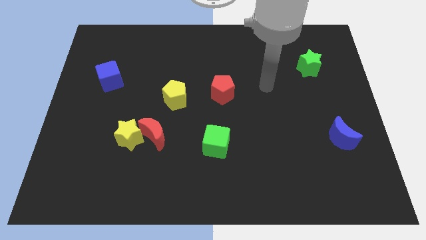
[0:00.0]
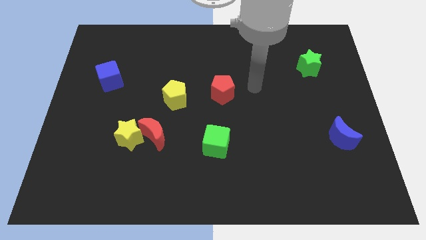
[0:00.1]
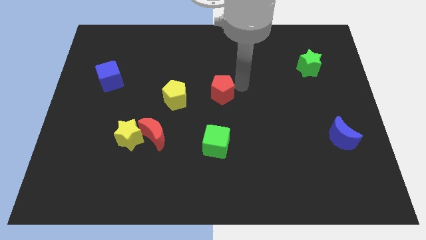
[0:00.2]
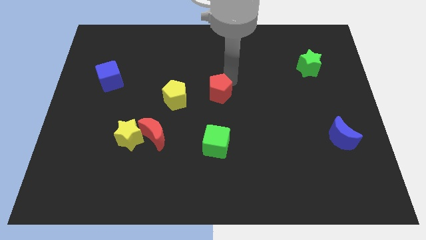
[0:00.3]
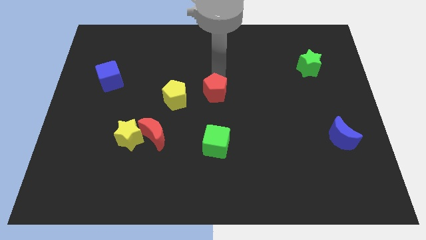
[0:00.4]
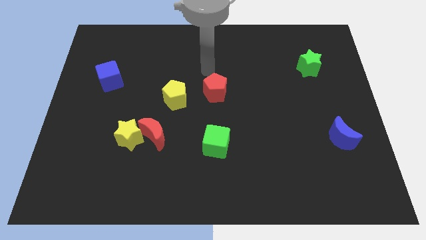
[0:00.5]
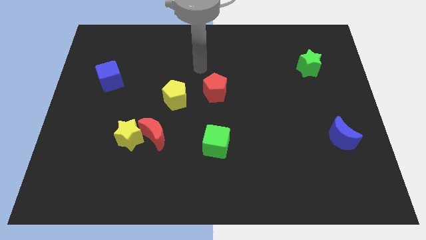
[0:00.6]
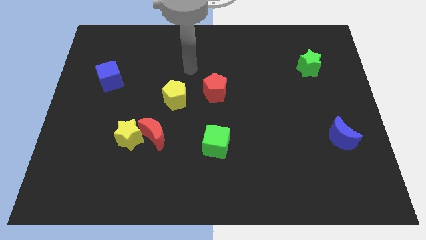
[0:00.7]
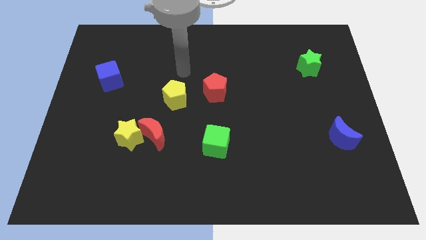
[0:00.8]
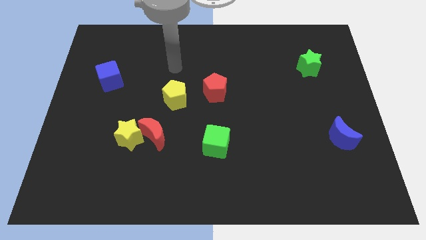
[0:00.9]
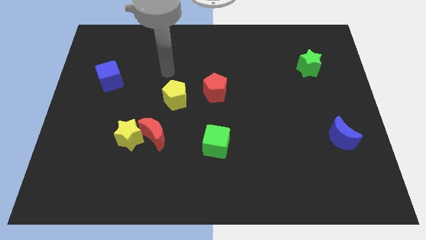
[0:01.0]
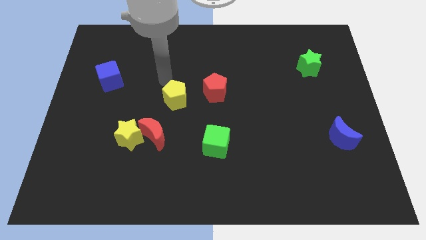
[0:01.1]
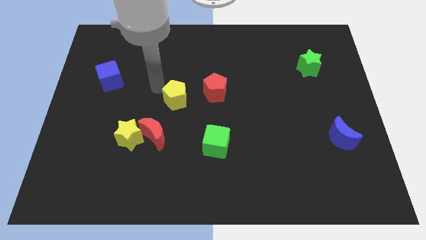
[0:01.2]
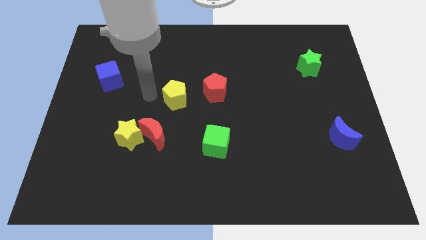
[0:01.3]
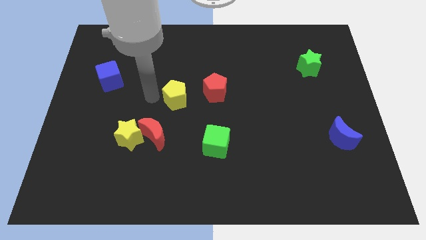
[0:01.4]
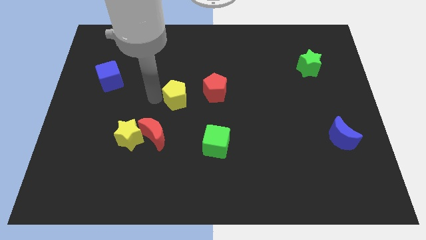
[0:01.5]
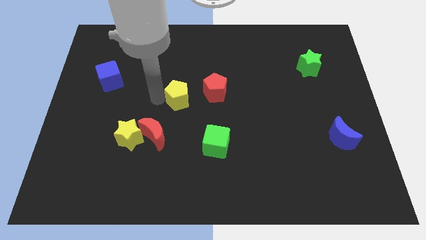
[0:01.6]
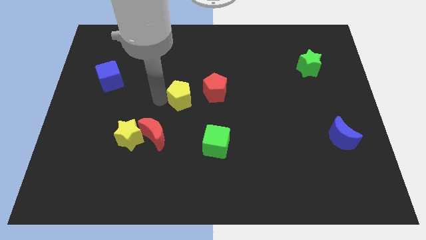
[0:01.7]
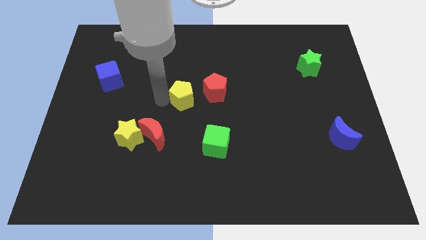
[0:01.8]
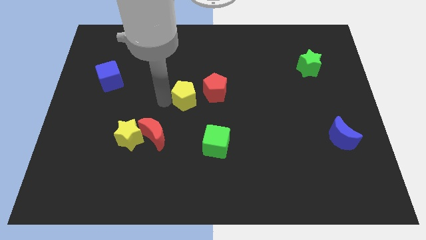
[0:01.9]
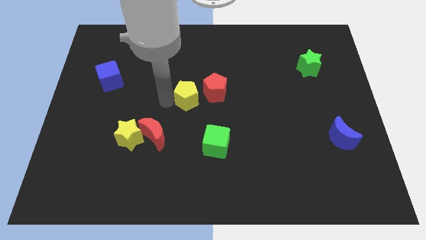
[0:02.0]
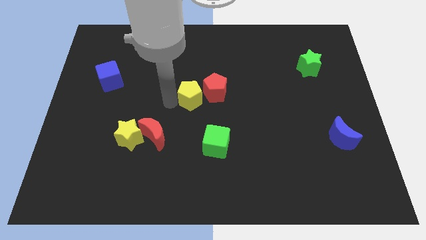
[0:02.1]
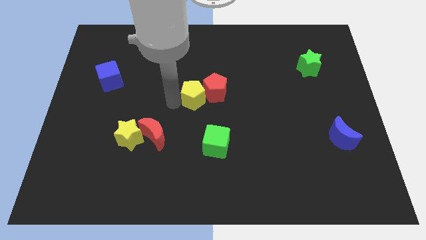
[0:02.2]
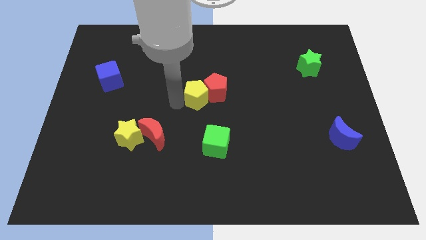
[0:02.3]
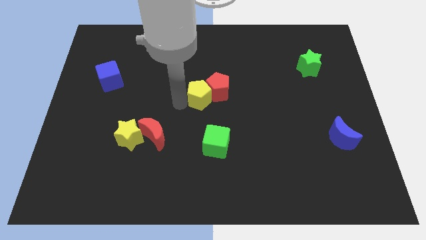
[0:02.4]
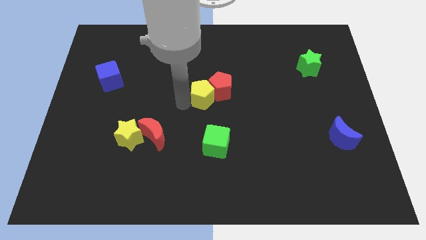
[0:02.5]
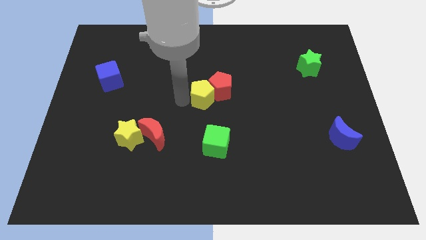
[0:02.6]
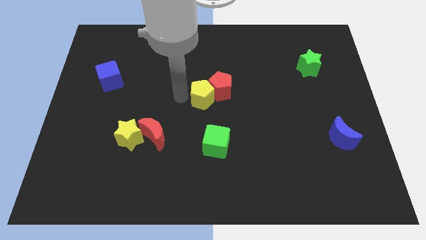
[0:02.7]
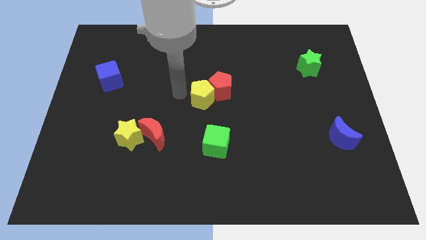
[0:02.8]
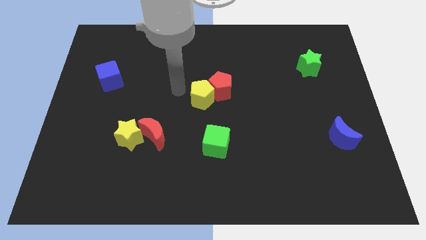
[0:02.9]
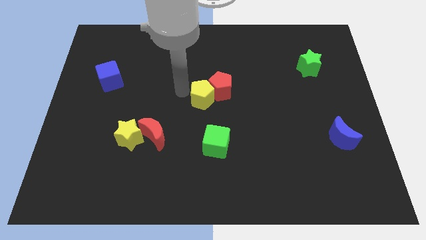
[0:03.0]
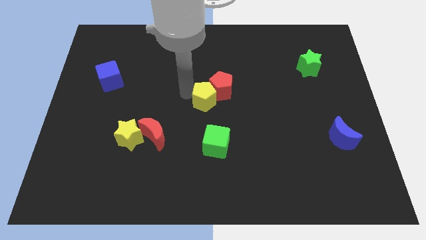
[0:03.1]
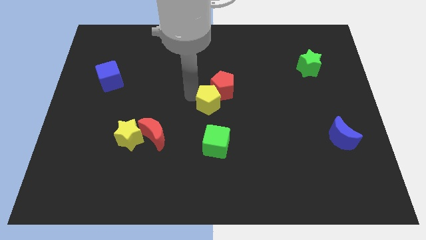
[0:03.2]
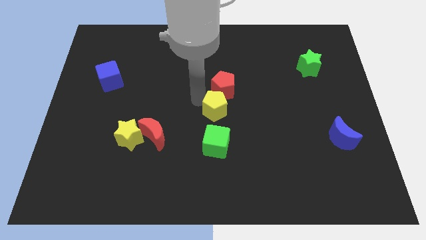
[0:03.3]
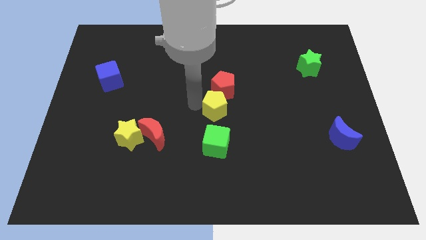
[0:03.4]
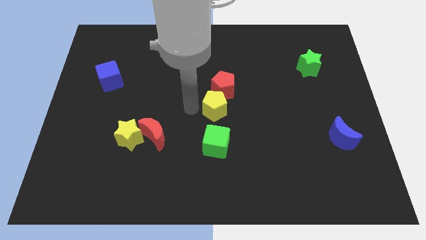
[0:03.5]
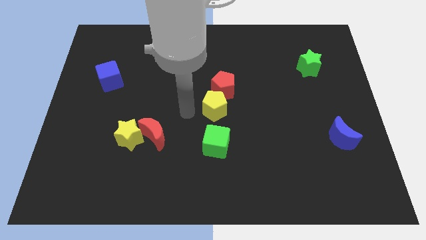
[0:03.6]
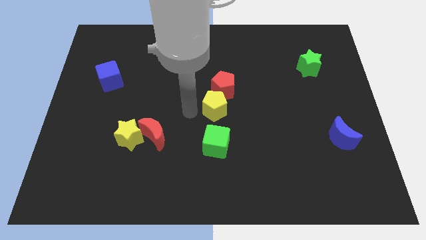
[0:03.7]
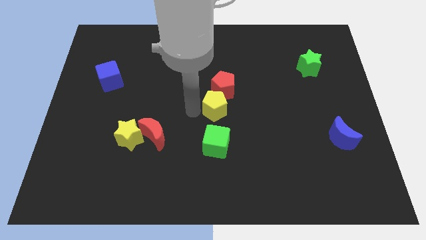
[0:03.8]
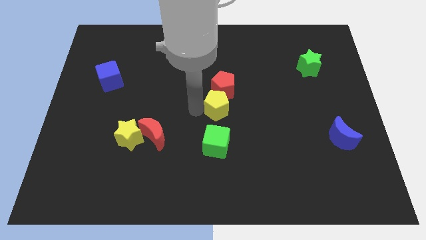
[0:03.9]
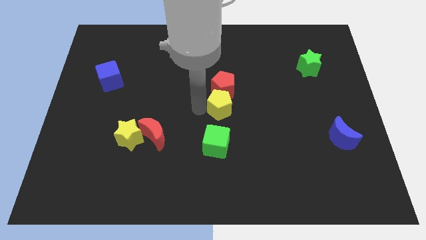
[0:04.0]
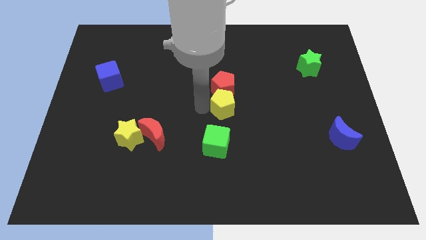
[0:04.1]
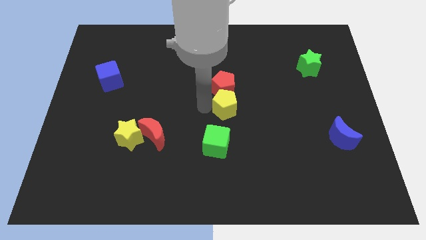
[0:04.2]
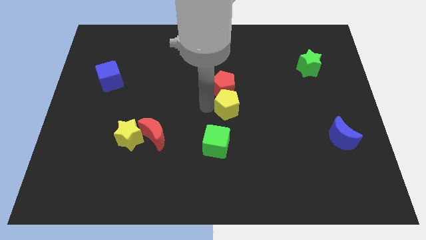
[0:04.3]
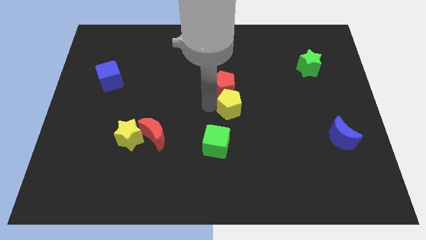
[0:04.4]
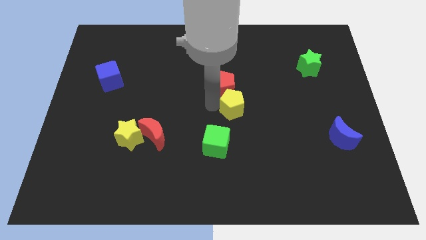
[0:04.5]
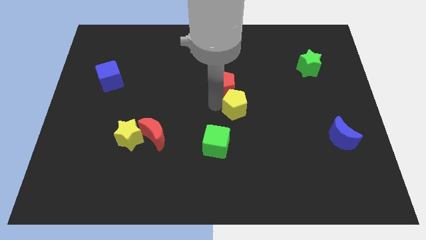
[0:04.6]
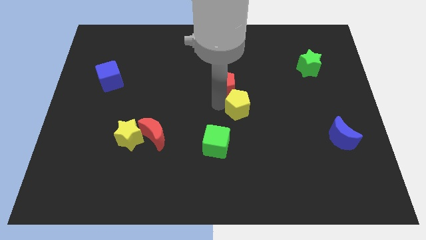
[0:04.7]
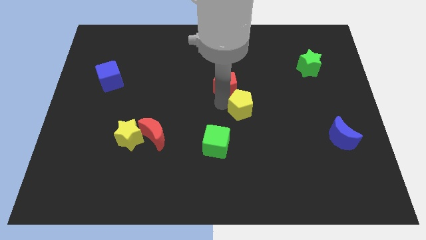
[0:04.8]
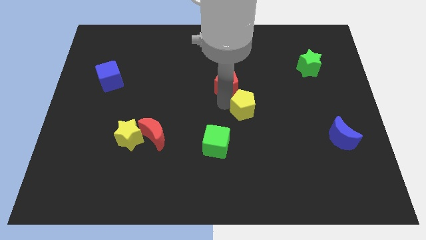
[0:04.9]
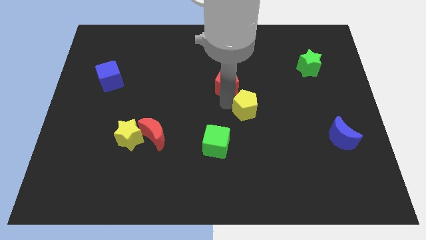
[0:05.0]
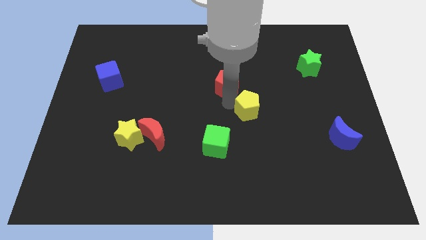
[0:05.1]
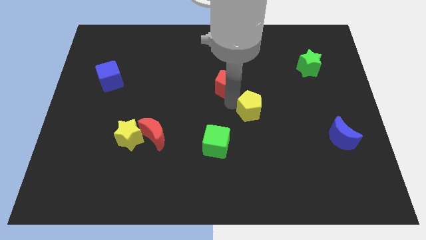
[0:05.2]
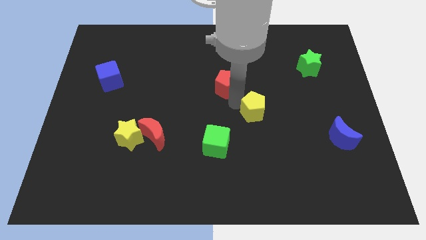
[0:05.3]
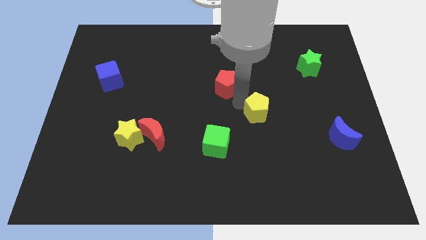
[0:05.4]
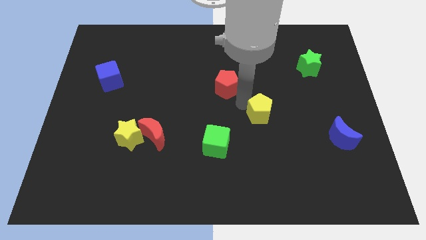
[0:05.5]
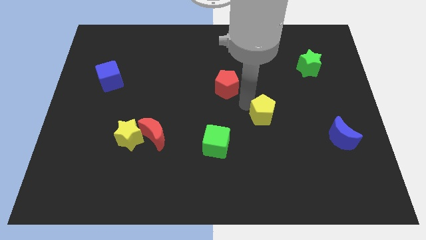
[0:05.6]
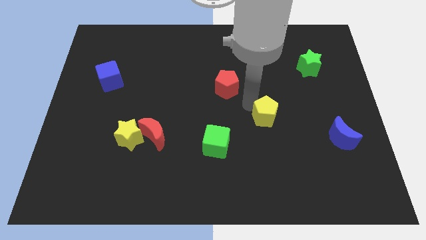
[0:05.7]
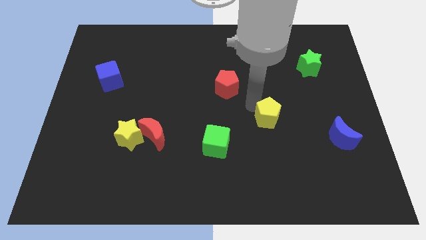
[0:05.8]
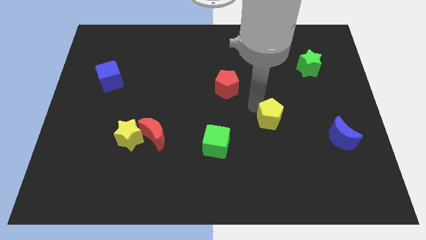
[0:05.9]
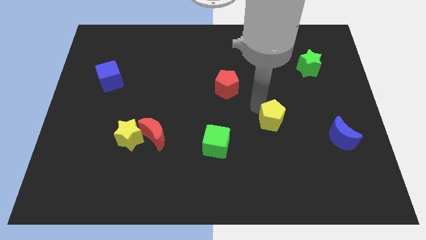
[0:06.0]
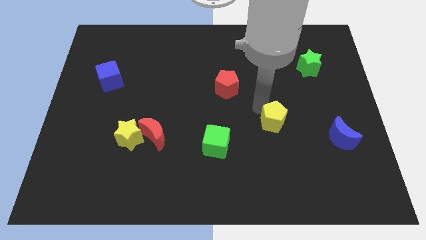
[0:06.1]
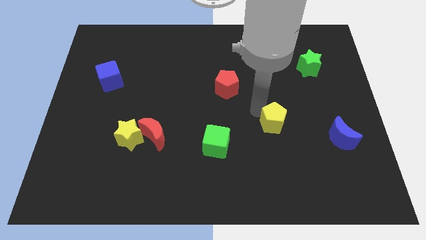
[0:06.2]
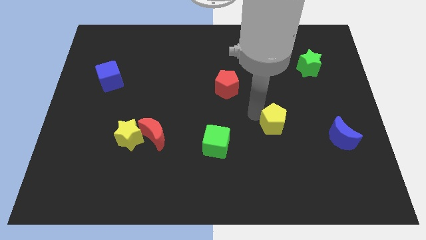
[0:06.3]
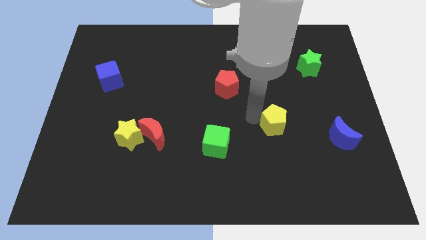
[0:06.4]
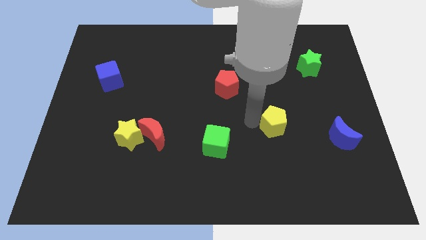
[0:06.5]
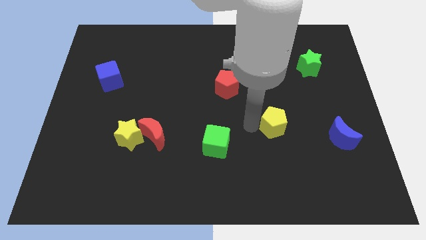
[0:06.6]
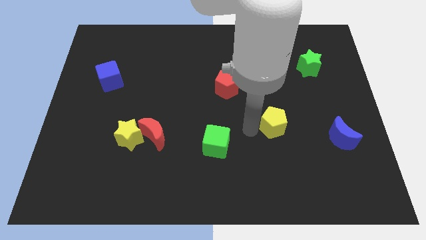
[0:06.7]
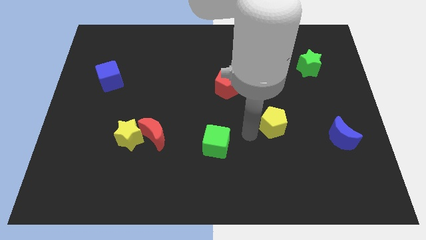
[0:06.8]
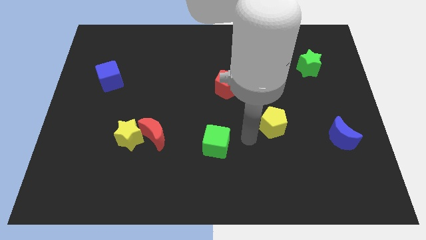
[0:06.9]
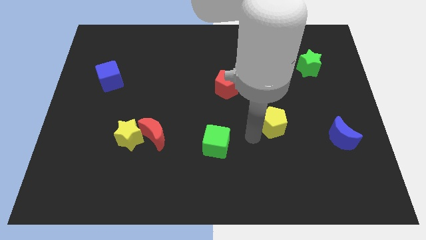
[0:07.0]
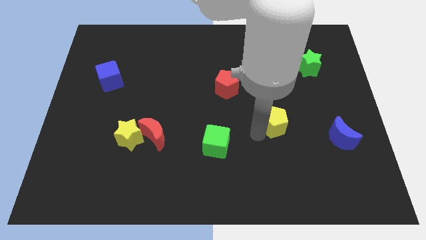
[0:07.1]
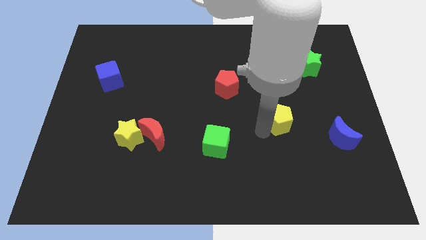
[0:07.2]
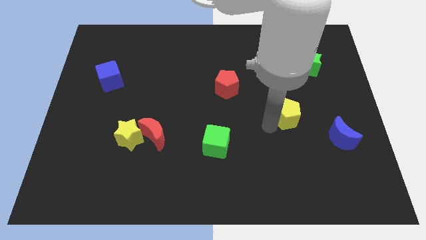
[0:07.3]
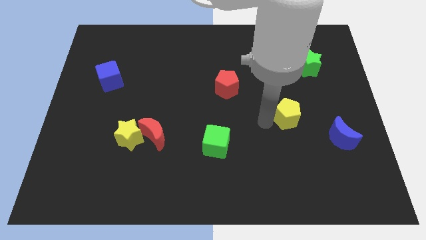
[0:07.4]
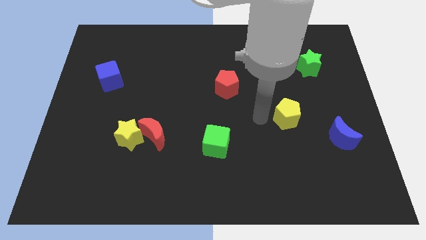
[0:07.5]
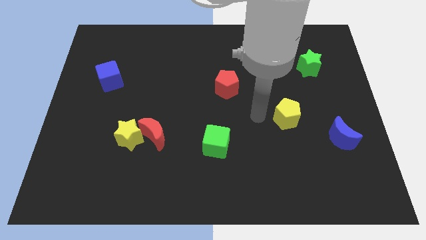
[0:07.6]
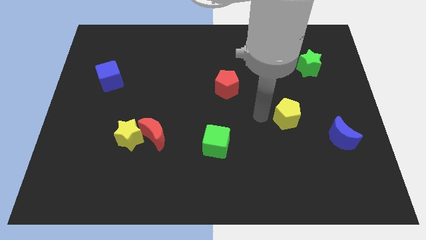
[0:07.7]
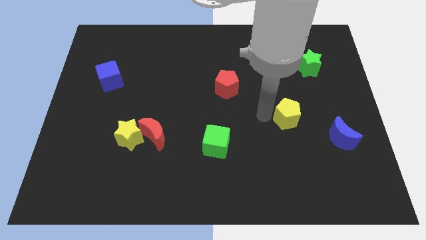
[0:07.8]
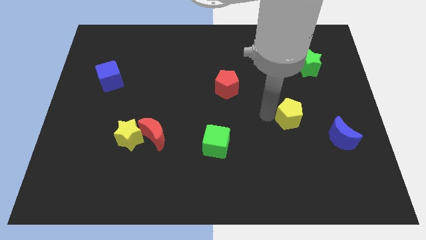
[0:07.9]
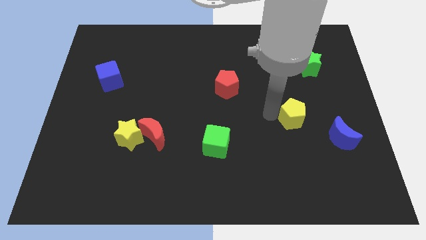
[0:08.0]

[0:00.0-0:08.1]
slide the yellow pentagon diagonally up and to the left of the blue moon
